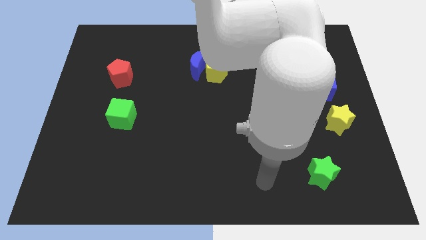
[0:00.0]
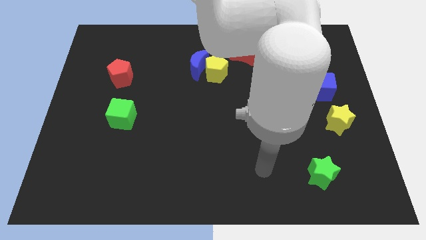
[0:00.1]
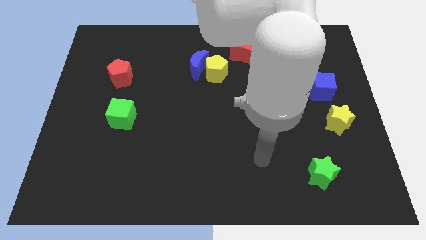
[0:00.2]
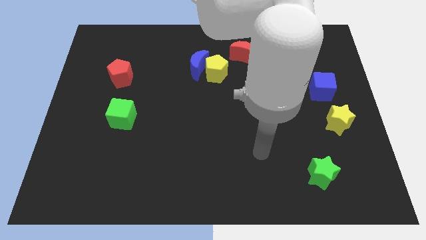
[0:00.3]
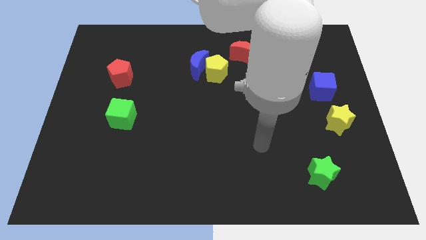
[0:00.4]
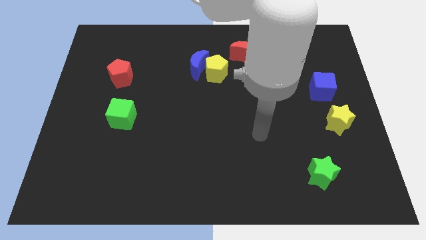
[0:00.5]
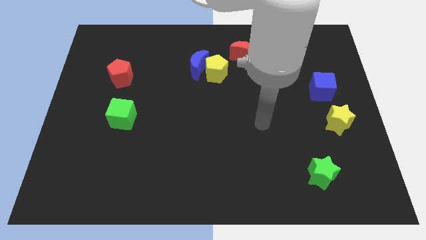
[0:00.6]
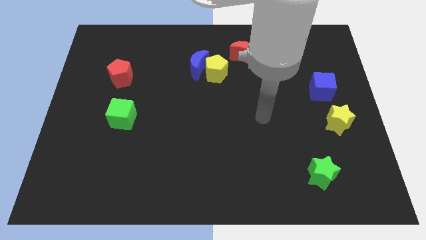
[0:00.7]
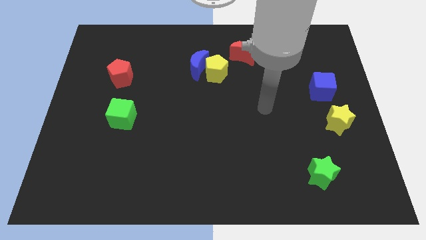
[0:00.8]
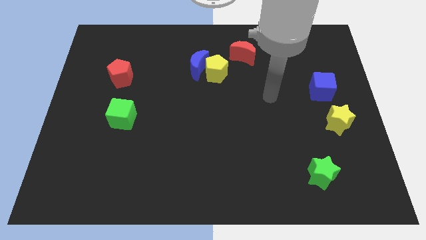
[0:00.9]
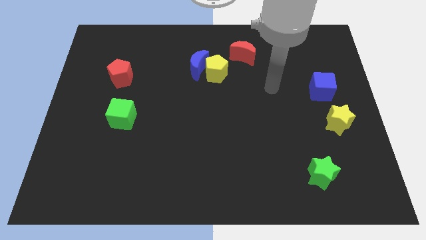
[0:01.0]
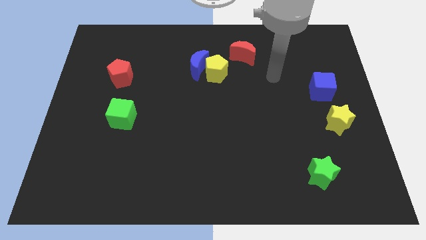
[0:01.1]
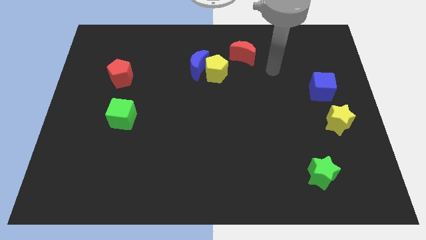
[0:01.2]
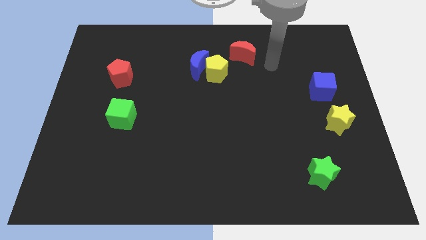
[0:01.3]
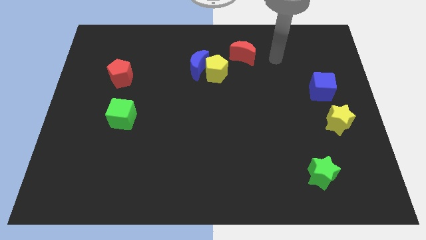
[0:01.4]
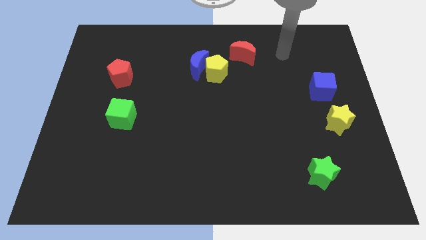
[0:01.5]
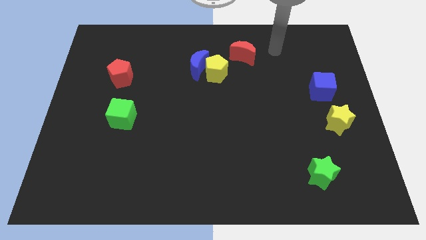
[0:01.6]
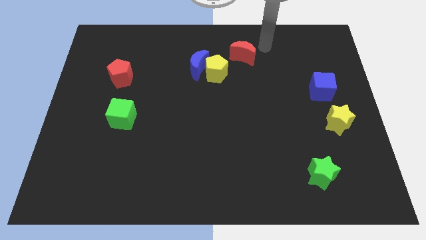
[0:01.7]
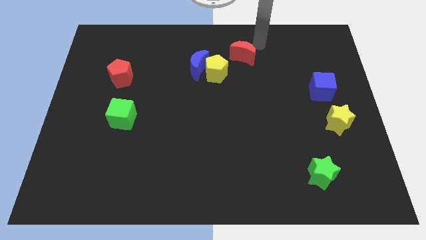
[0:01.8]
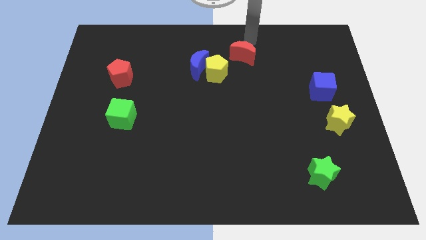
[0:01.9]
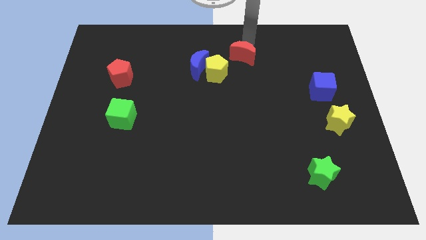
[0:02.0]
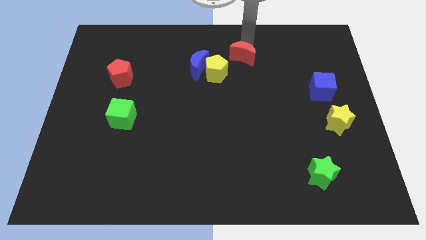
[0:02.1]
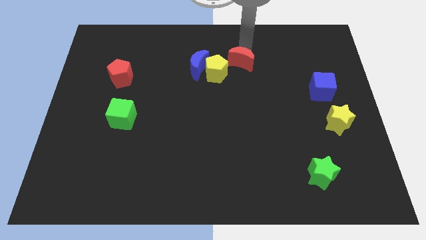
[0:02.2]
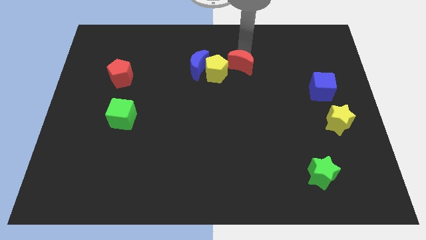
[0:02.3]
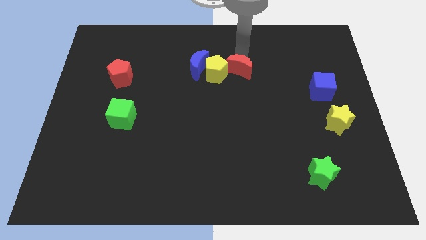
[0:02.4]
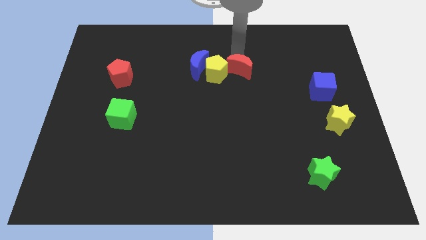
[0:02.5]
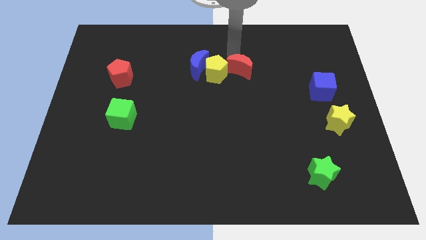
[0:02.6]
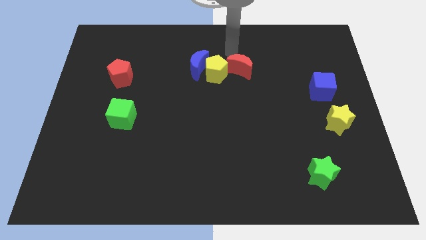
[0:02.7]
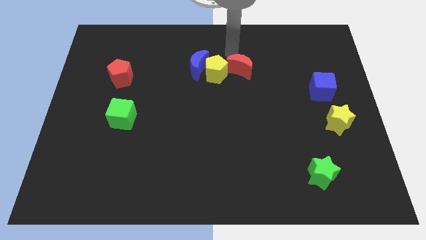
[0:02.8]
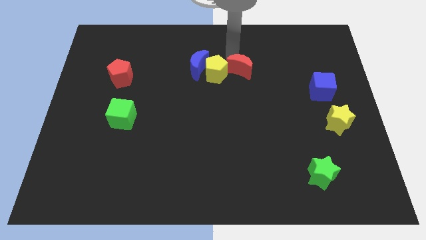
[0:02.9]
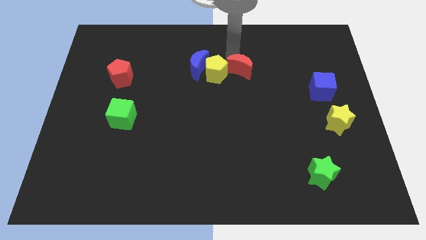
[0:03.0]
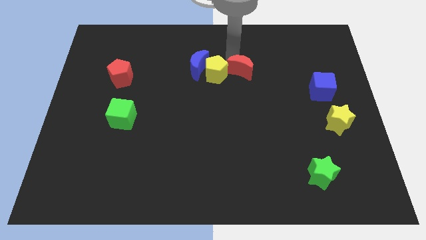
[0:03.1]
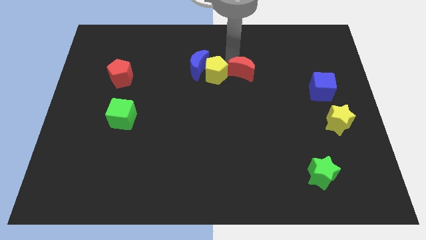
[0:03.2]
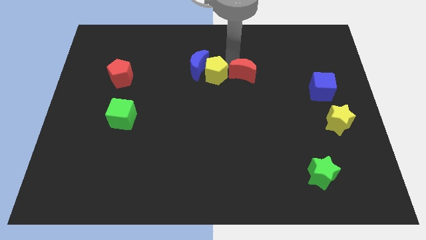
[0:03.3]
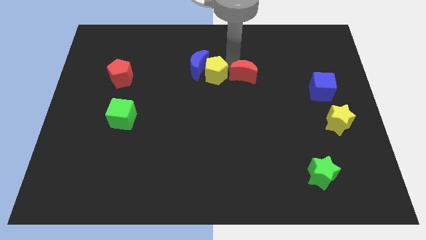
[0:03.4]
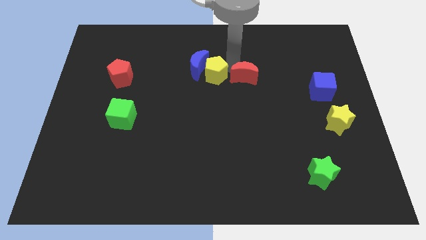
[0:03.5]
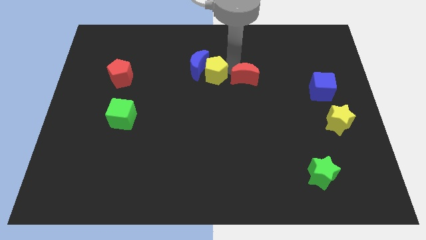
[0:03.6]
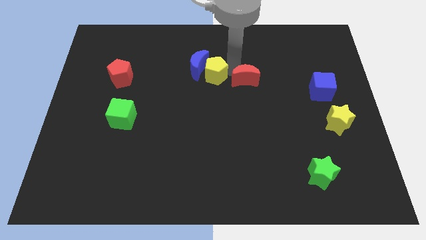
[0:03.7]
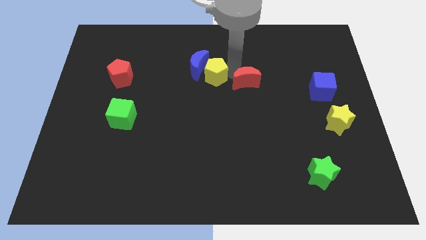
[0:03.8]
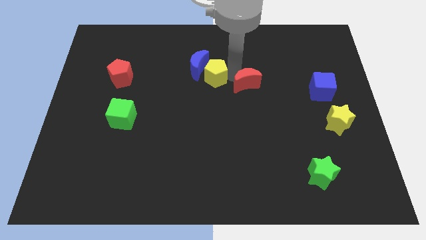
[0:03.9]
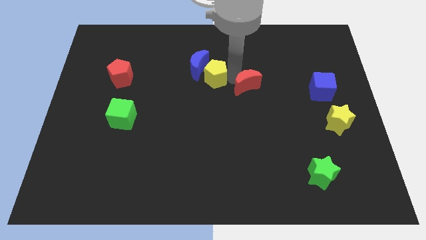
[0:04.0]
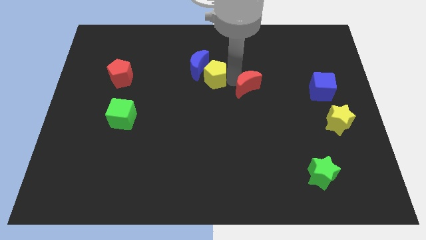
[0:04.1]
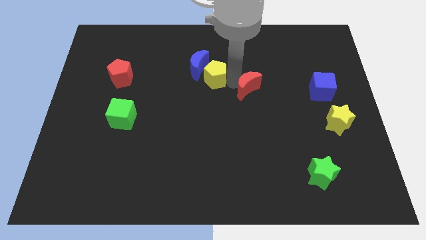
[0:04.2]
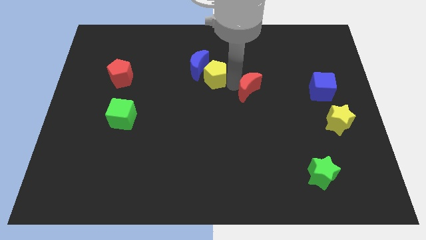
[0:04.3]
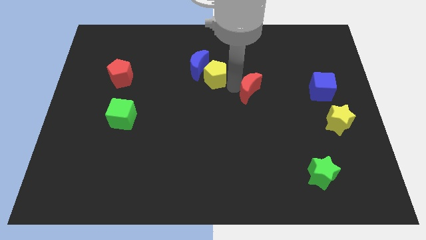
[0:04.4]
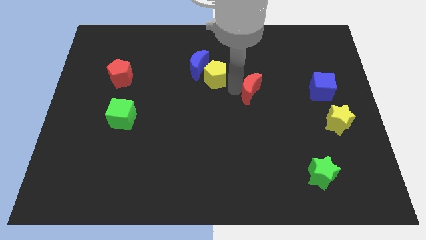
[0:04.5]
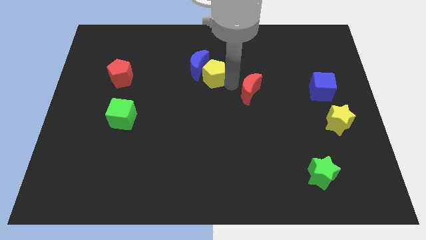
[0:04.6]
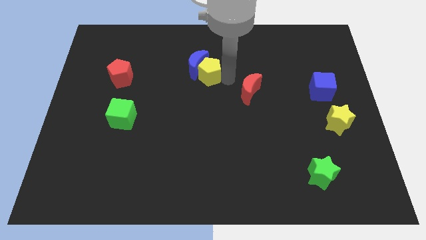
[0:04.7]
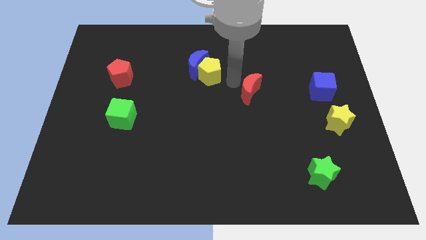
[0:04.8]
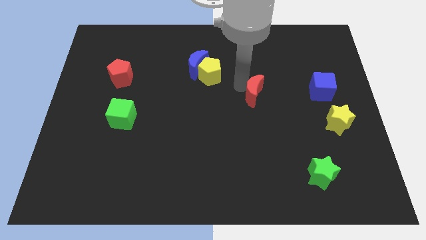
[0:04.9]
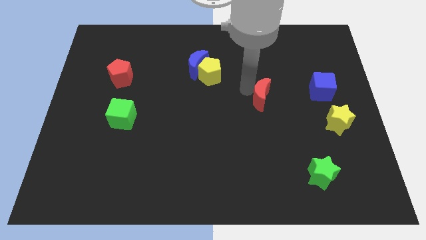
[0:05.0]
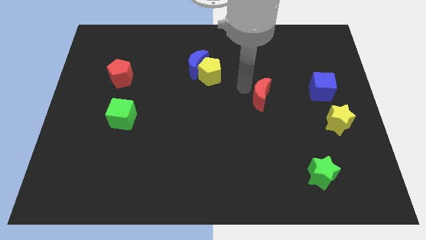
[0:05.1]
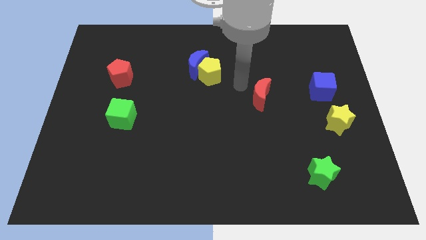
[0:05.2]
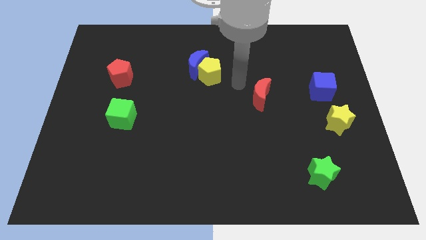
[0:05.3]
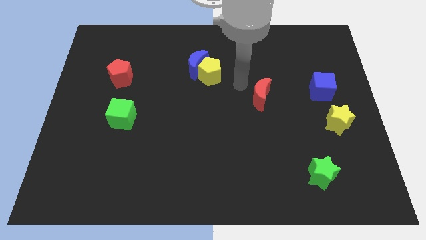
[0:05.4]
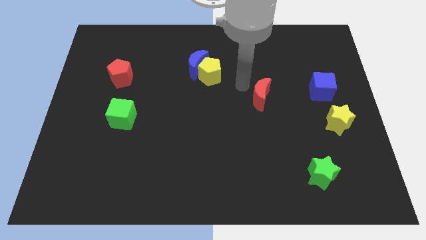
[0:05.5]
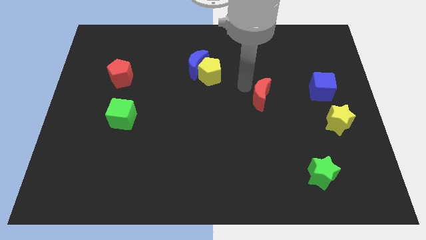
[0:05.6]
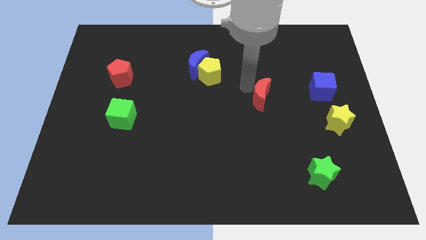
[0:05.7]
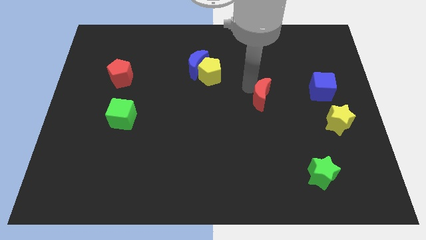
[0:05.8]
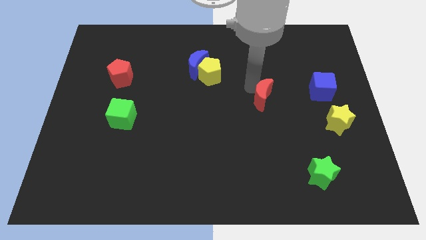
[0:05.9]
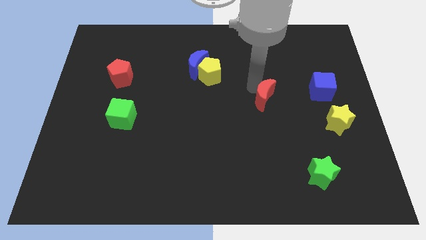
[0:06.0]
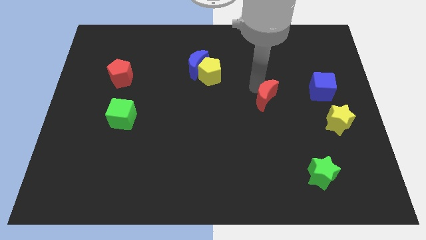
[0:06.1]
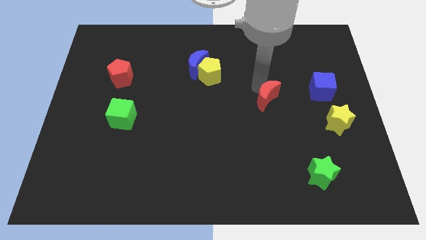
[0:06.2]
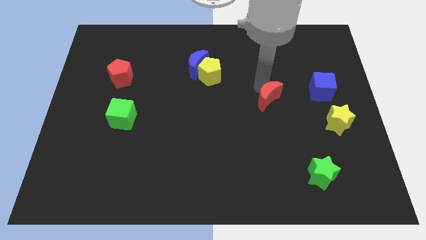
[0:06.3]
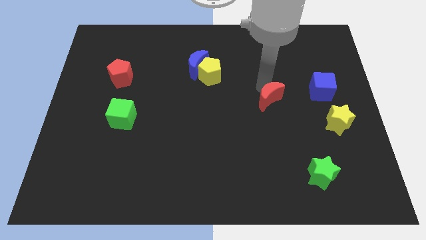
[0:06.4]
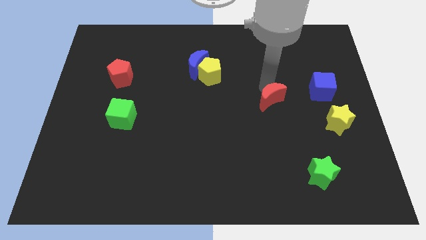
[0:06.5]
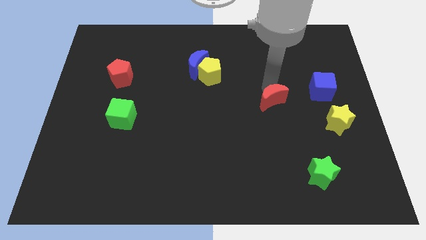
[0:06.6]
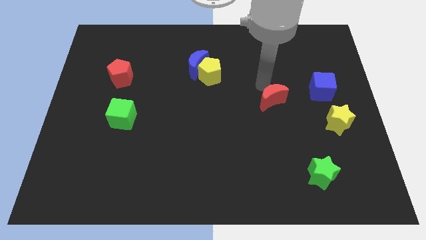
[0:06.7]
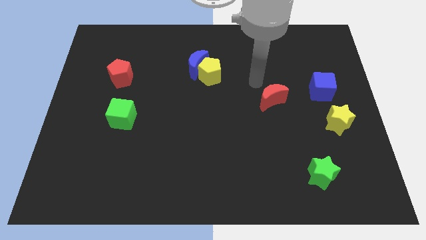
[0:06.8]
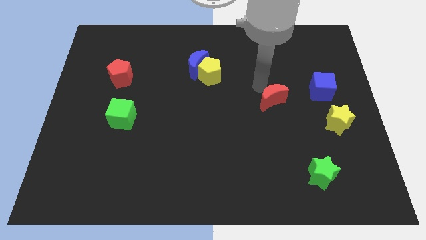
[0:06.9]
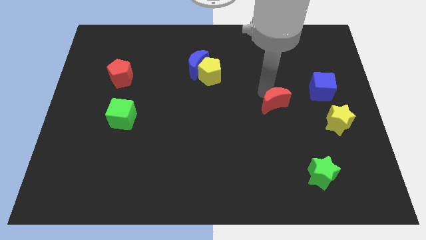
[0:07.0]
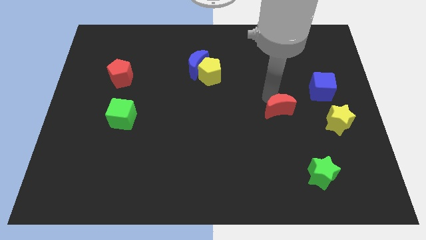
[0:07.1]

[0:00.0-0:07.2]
move the red moon left of the yellow star
